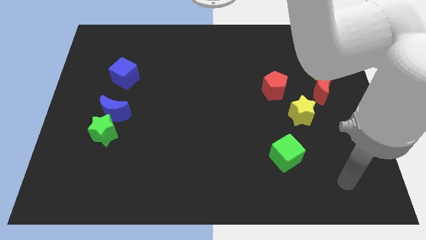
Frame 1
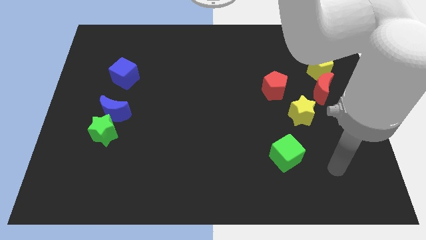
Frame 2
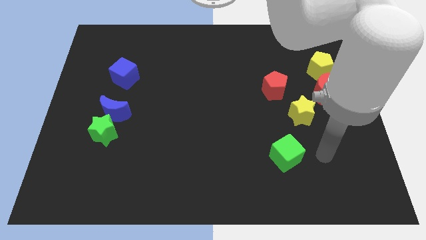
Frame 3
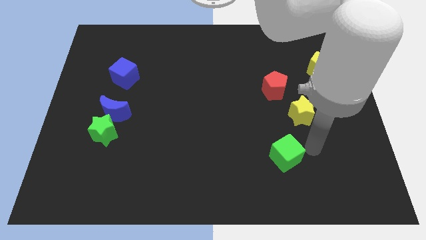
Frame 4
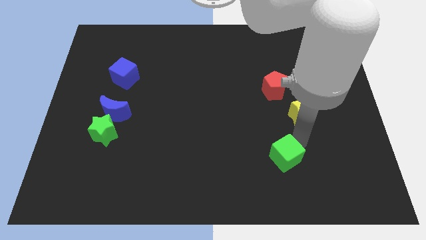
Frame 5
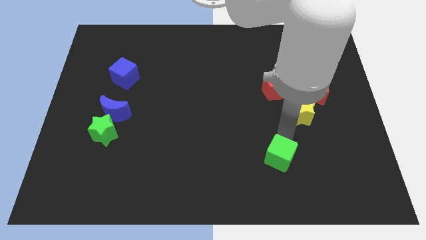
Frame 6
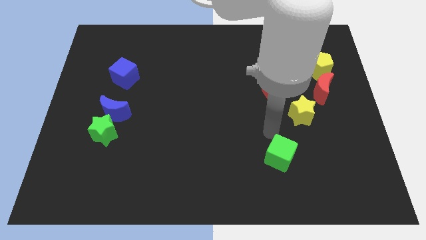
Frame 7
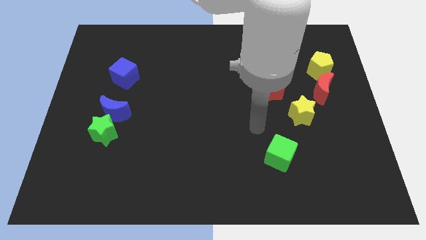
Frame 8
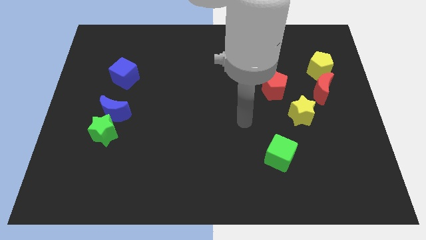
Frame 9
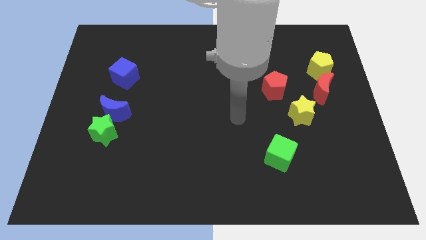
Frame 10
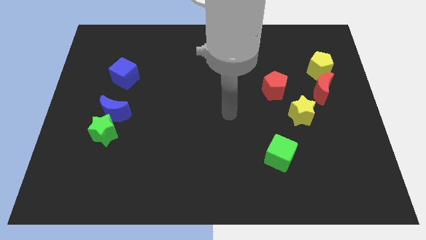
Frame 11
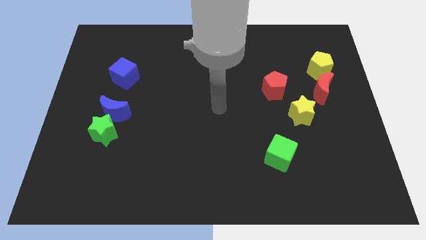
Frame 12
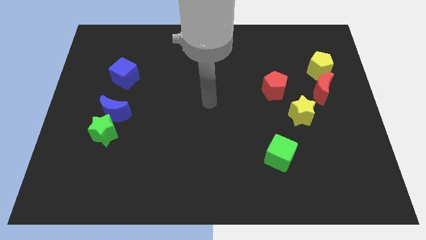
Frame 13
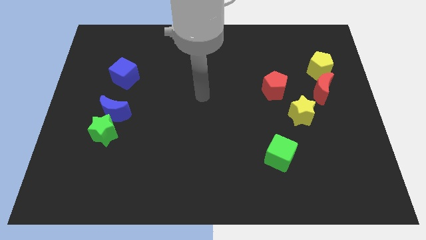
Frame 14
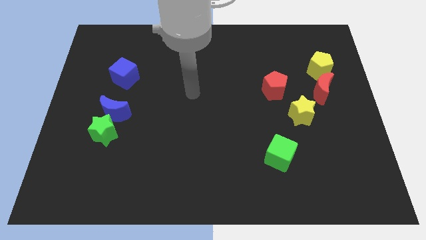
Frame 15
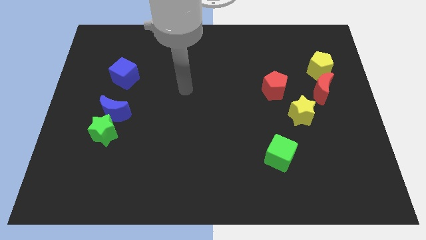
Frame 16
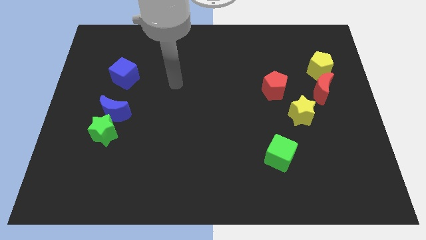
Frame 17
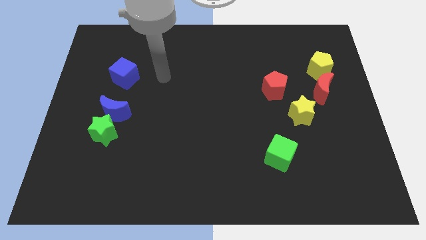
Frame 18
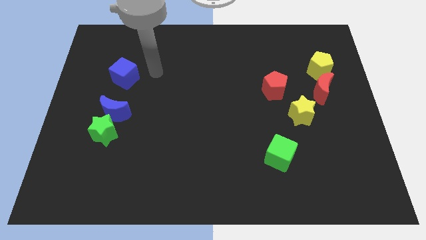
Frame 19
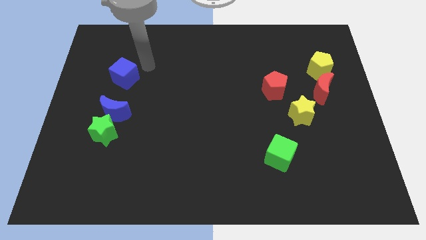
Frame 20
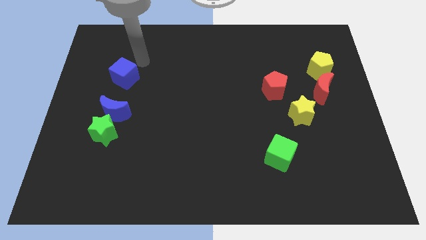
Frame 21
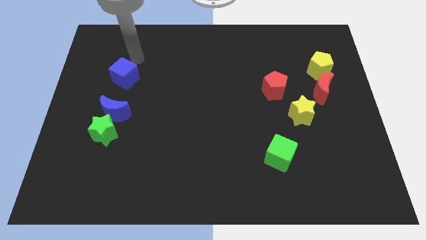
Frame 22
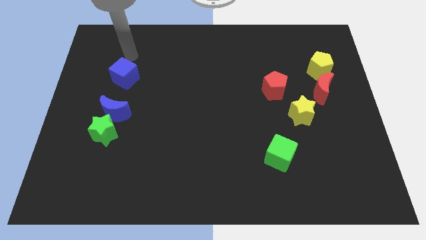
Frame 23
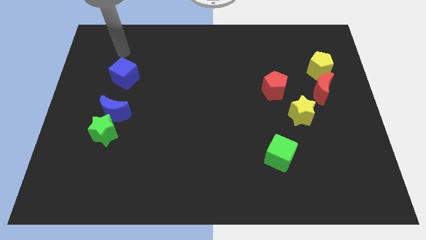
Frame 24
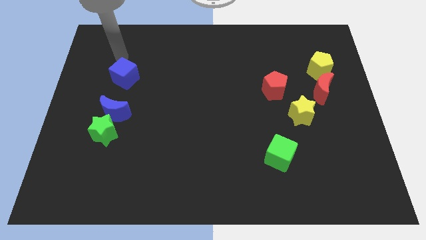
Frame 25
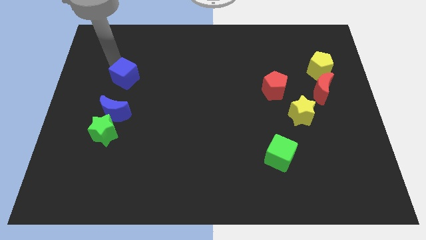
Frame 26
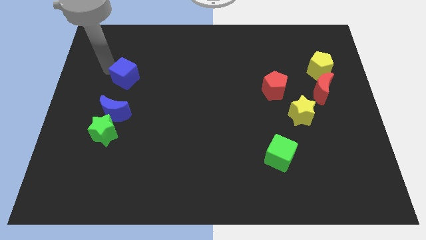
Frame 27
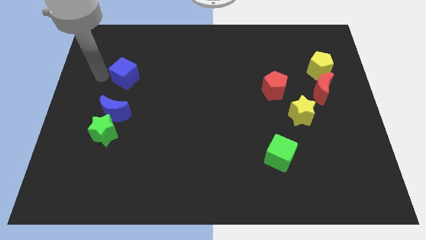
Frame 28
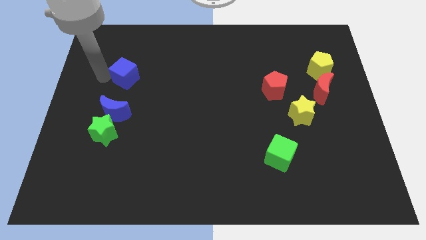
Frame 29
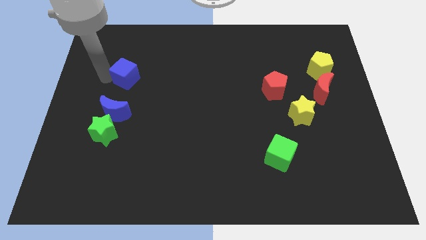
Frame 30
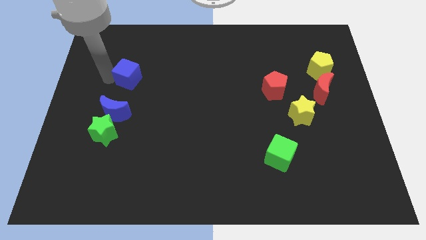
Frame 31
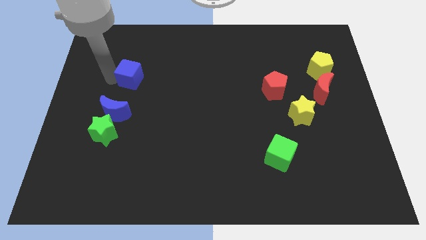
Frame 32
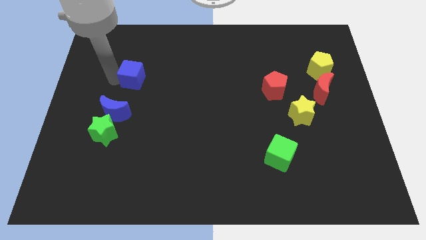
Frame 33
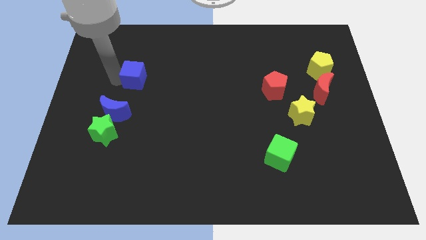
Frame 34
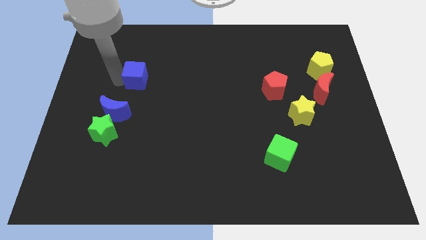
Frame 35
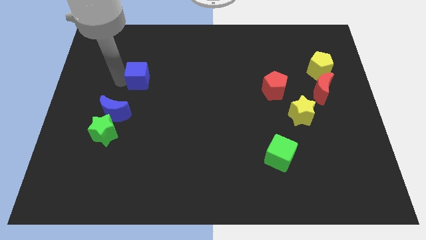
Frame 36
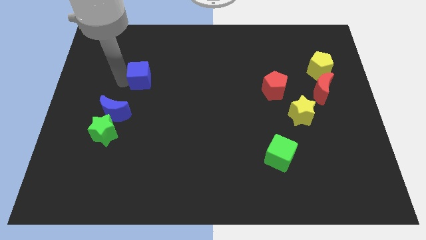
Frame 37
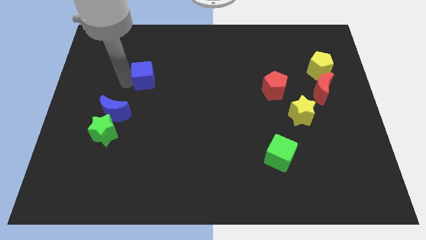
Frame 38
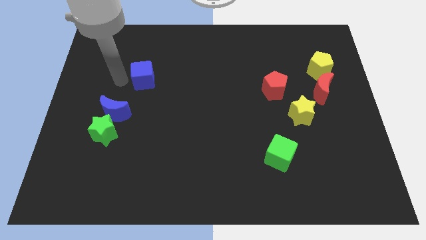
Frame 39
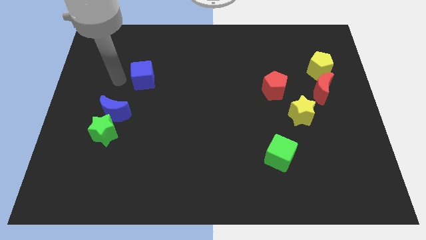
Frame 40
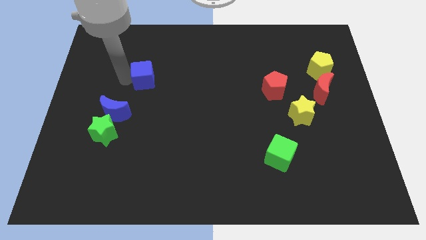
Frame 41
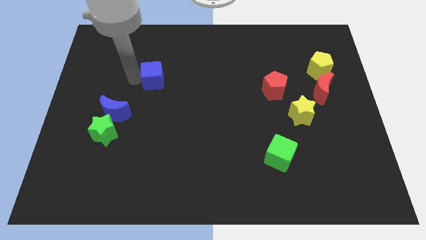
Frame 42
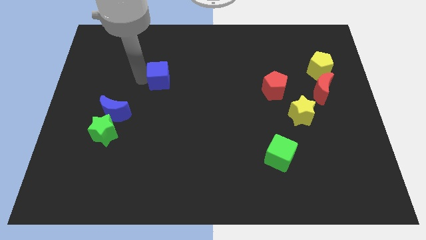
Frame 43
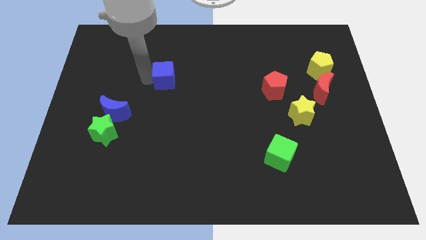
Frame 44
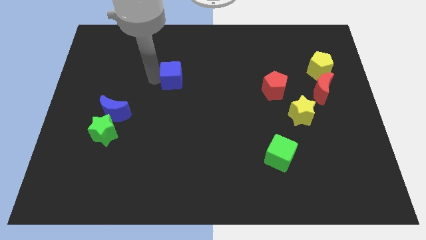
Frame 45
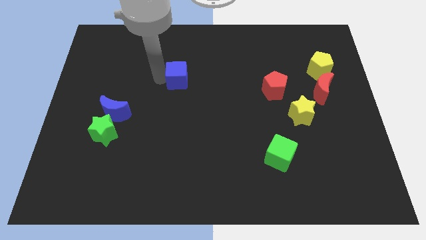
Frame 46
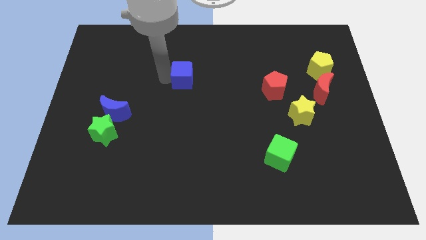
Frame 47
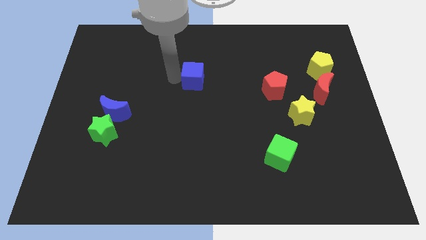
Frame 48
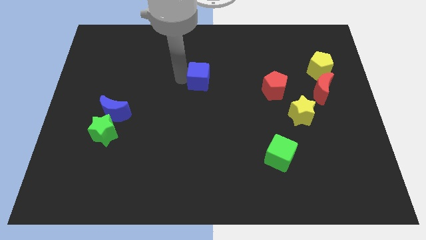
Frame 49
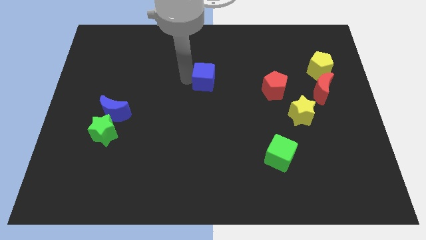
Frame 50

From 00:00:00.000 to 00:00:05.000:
push the blue cube to the right

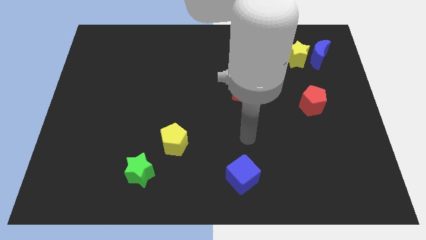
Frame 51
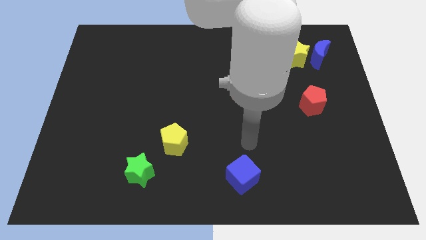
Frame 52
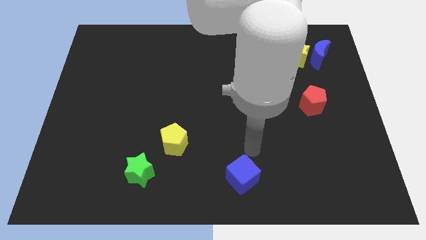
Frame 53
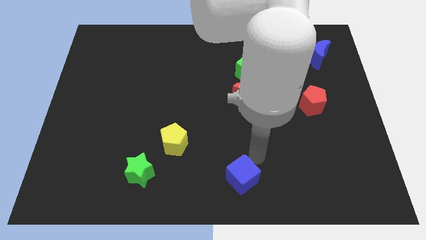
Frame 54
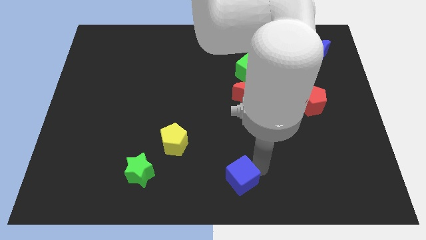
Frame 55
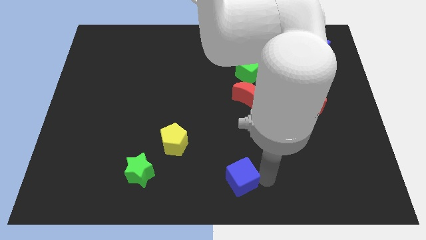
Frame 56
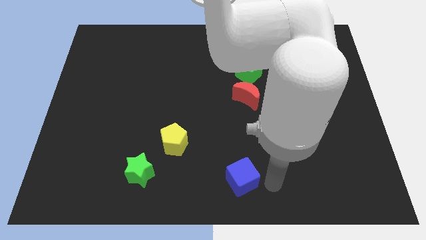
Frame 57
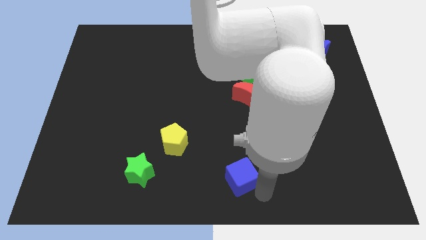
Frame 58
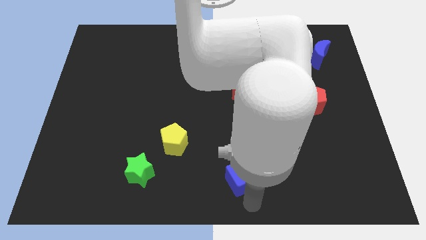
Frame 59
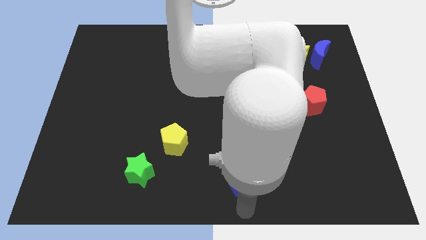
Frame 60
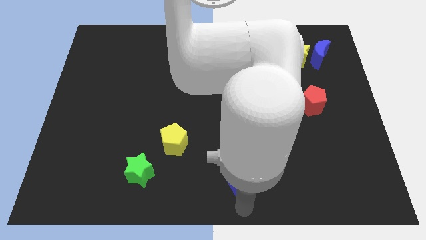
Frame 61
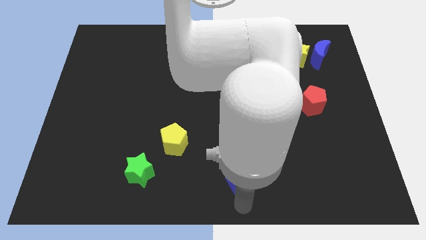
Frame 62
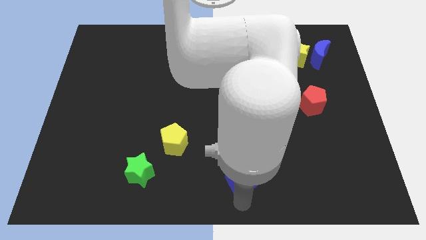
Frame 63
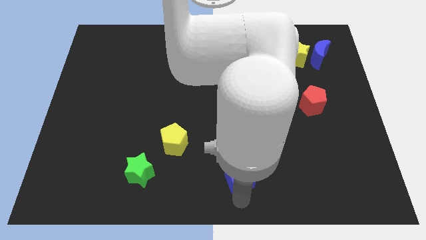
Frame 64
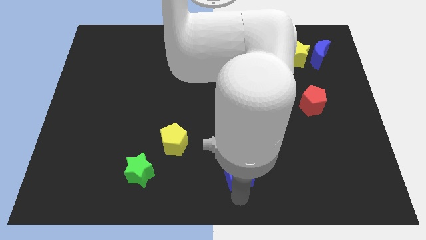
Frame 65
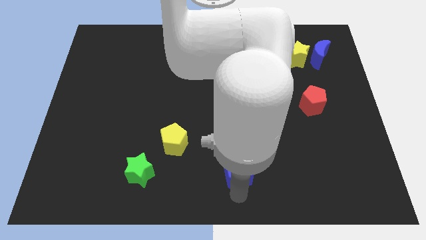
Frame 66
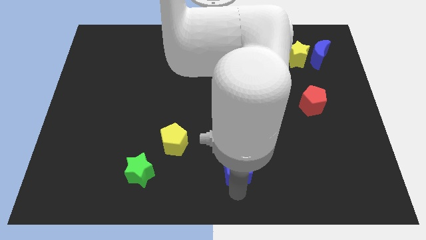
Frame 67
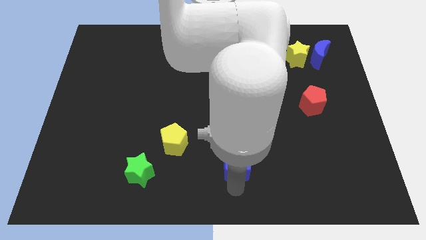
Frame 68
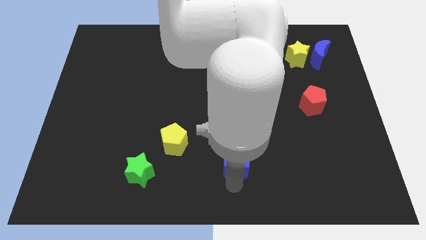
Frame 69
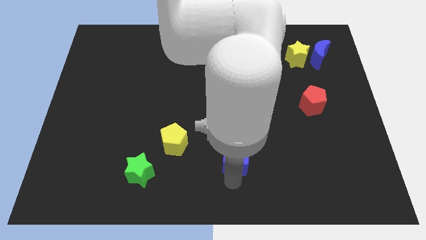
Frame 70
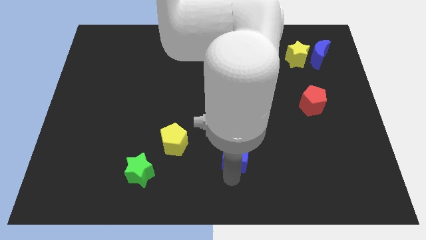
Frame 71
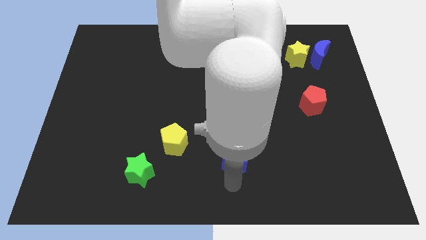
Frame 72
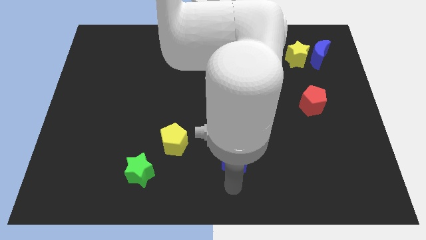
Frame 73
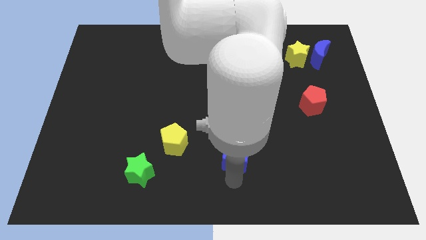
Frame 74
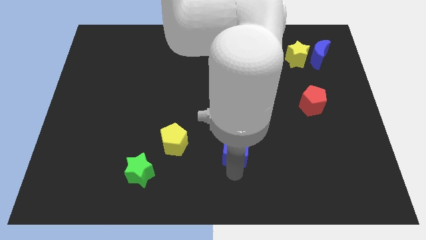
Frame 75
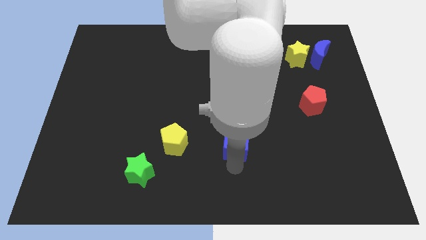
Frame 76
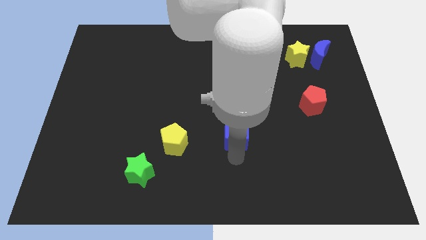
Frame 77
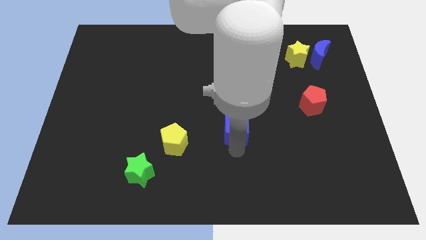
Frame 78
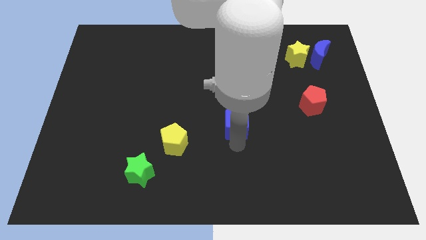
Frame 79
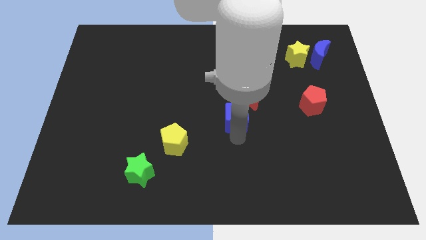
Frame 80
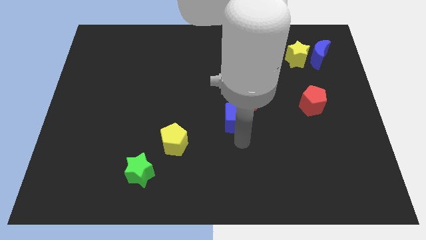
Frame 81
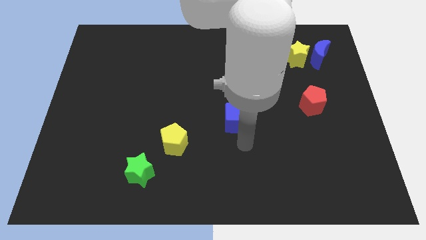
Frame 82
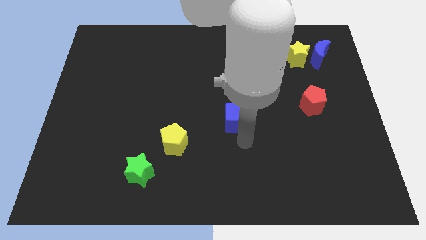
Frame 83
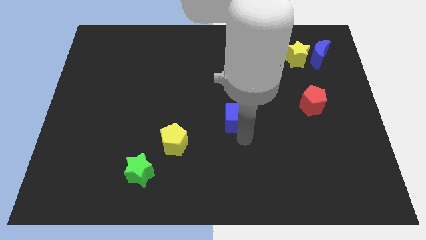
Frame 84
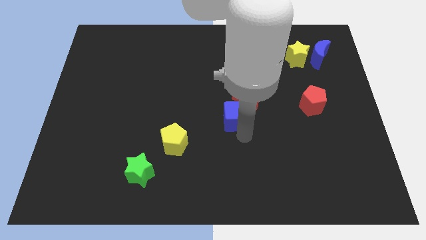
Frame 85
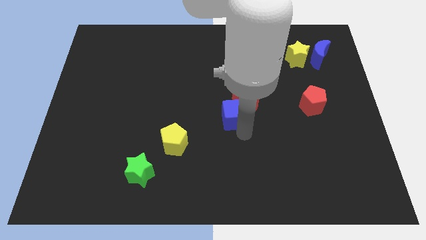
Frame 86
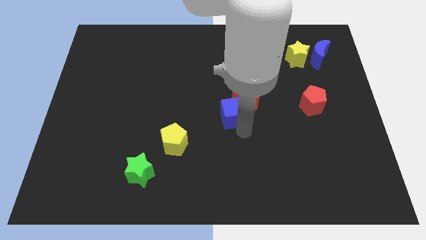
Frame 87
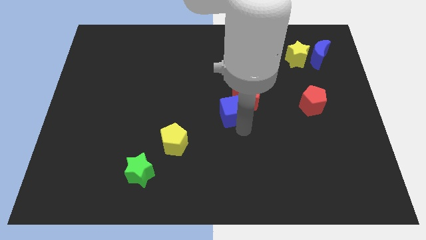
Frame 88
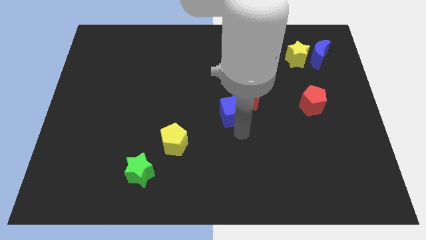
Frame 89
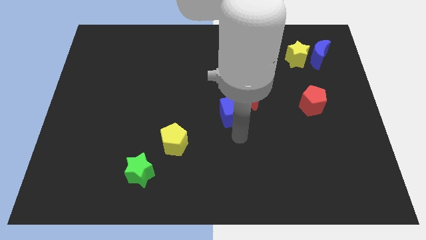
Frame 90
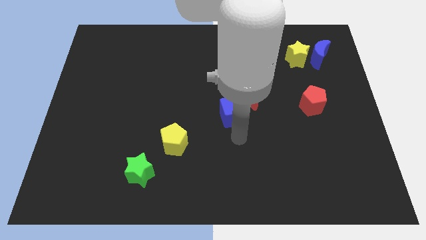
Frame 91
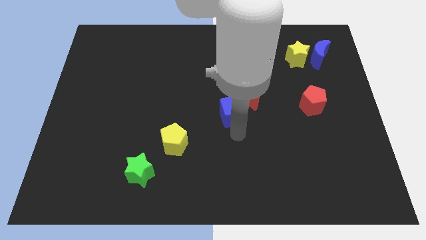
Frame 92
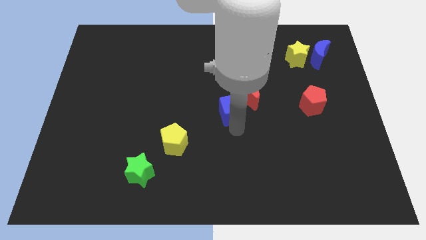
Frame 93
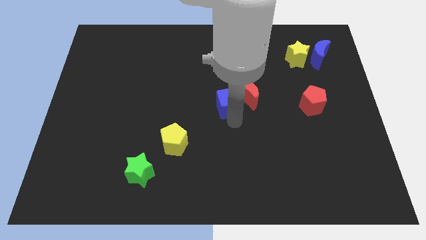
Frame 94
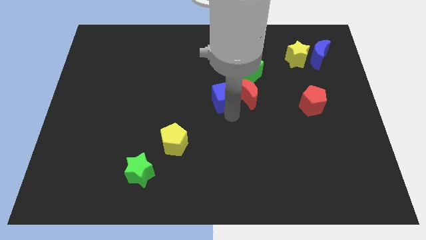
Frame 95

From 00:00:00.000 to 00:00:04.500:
move the blue cube upwards
